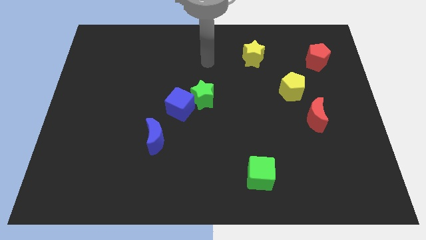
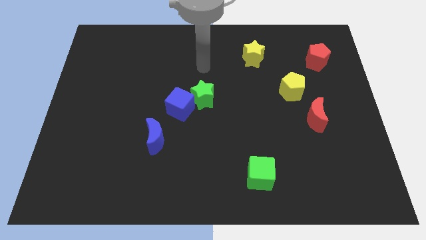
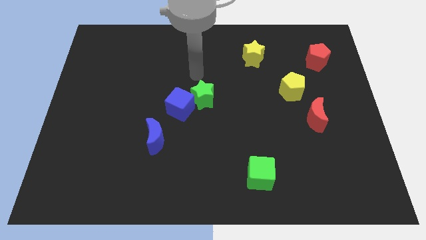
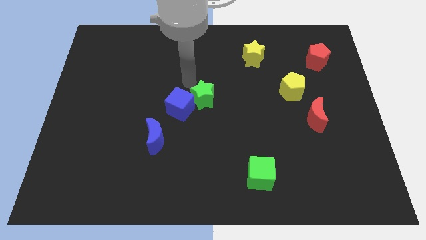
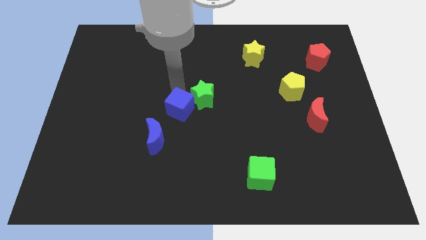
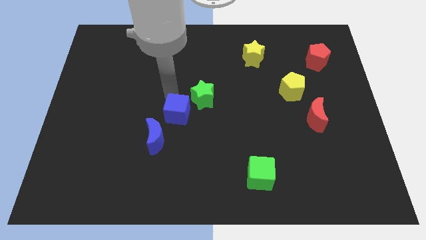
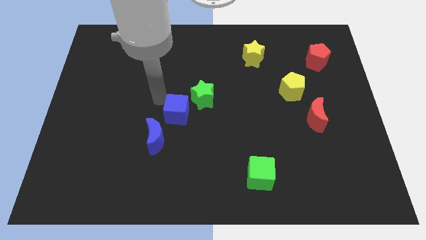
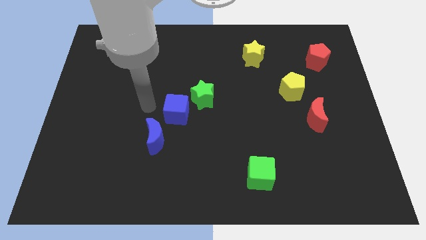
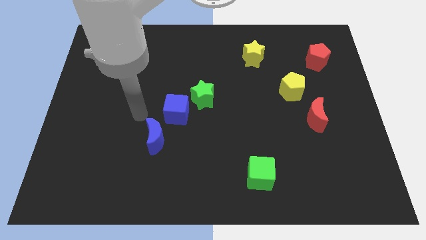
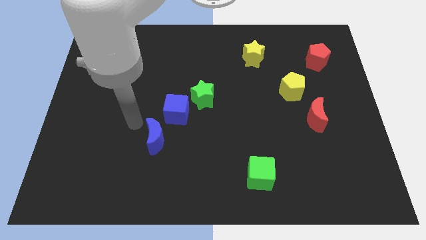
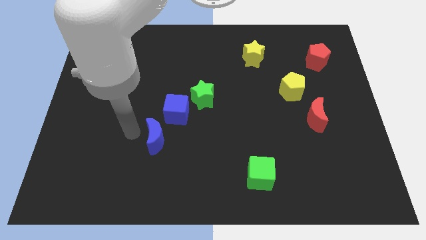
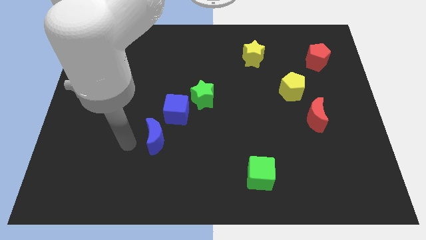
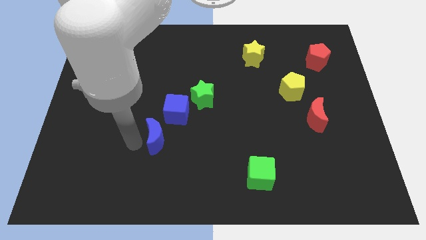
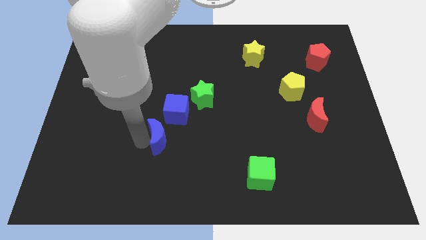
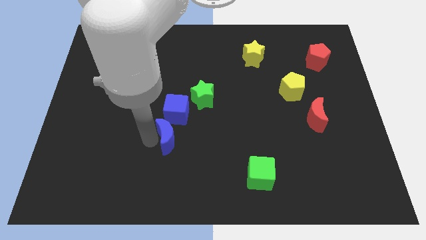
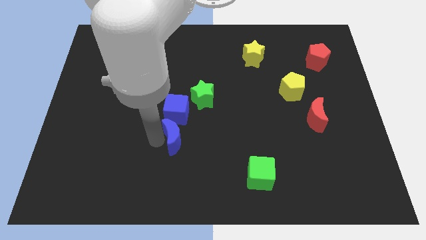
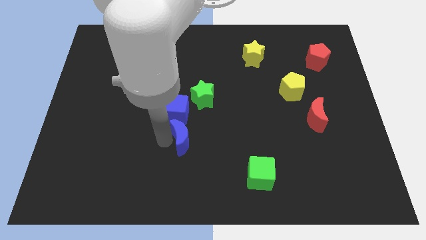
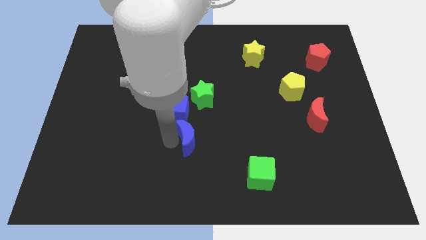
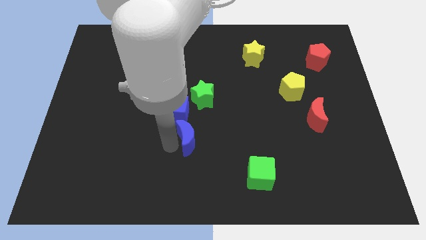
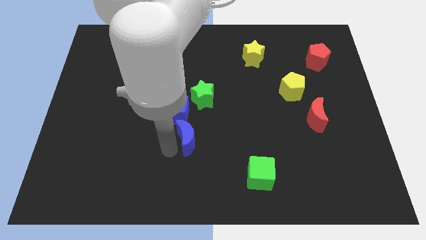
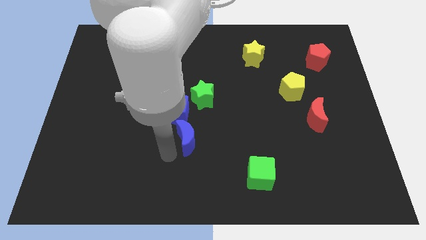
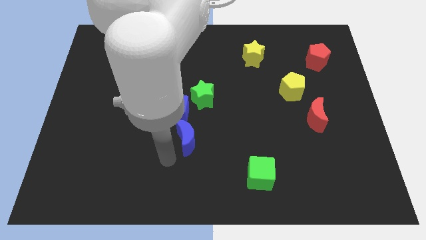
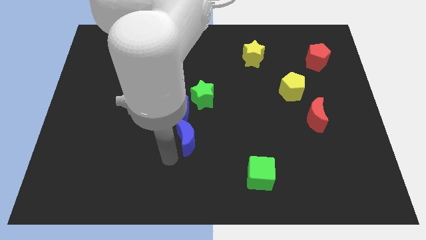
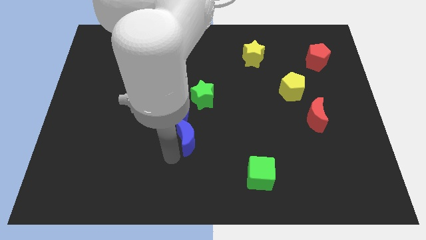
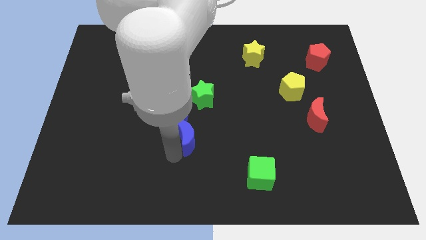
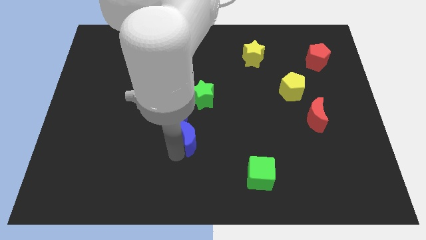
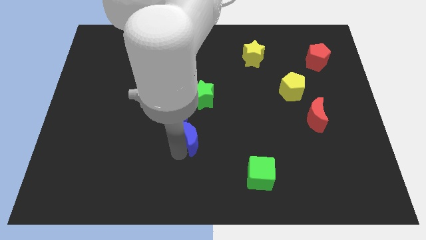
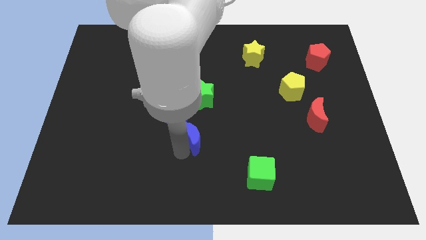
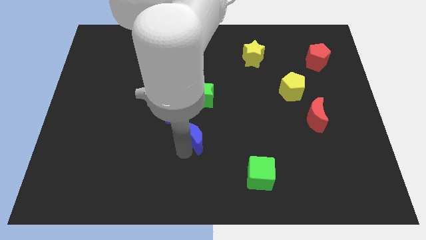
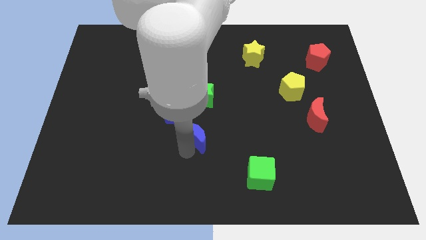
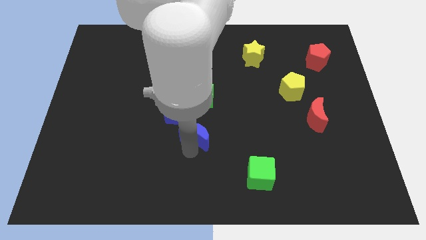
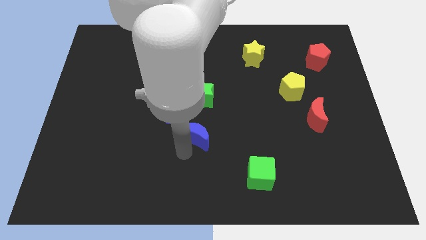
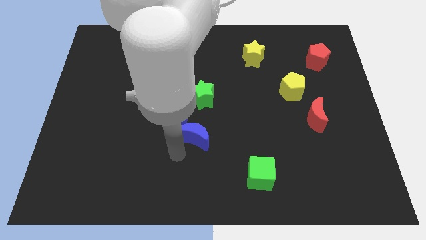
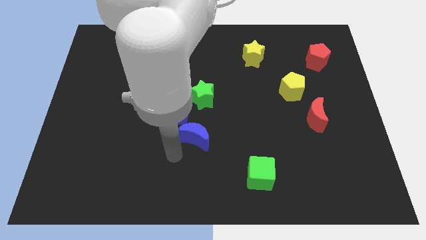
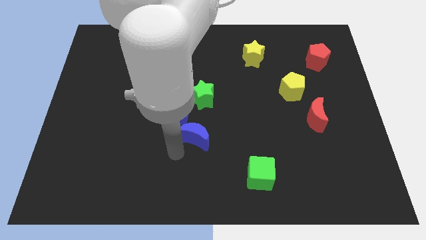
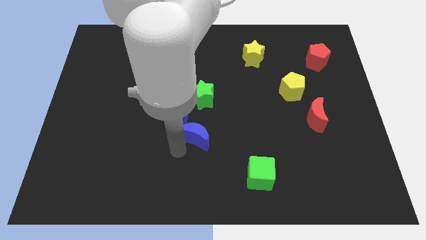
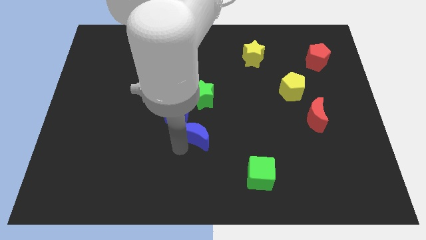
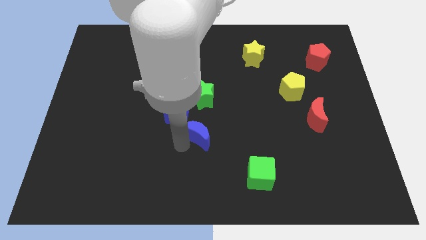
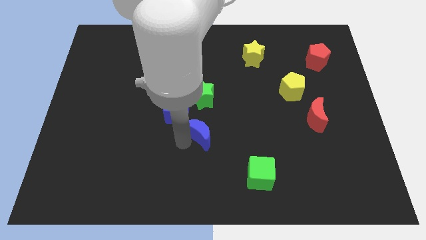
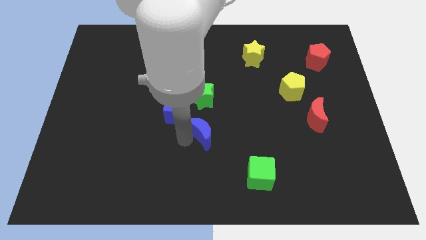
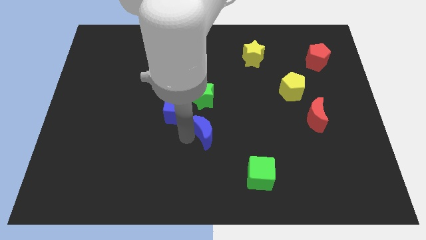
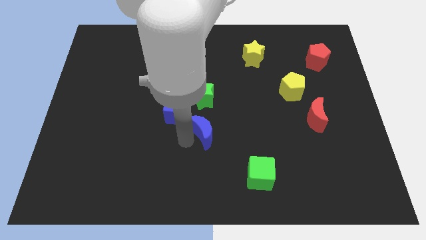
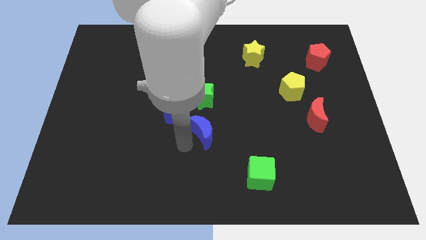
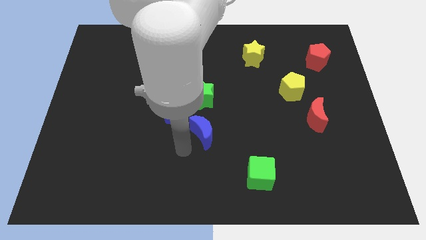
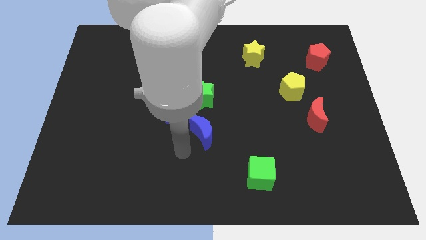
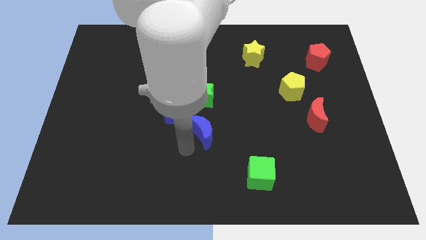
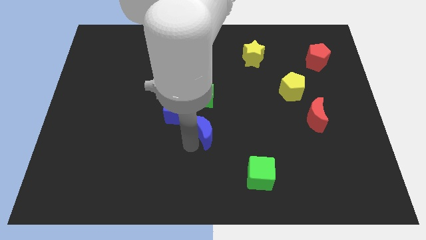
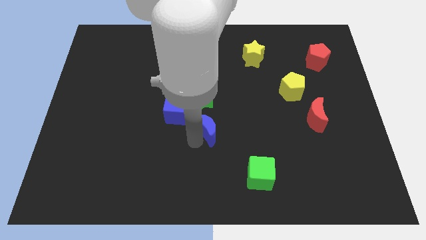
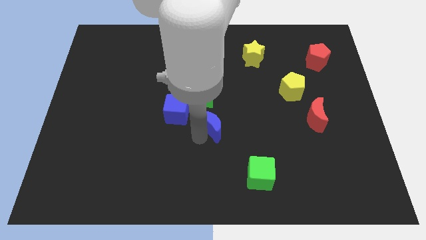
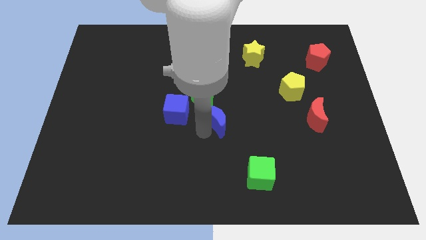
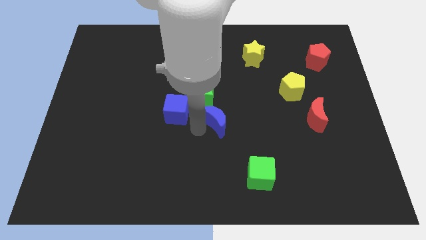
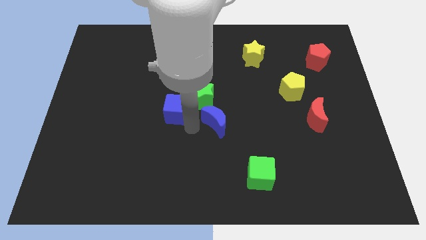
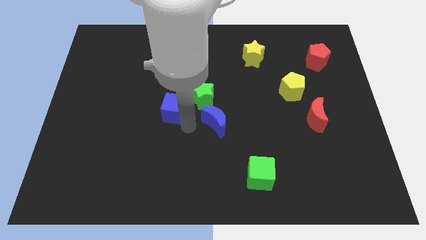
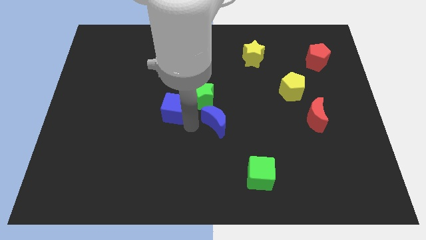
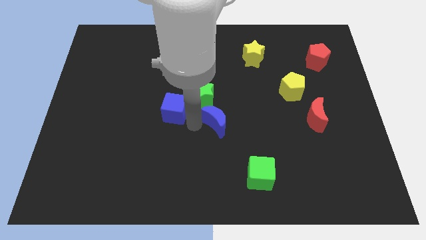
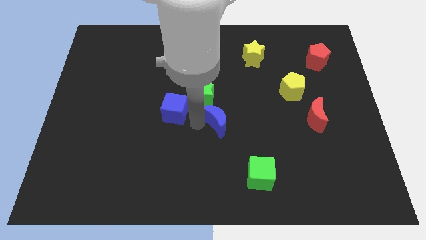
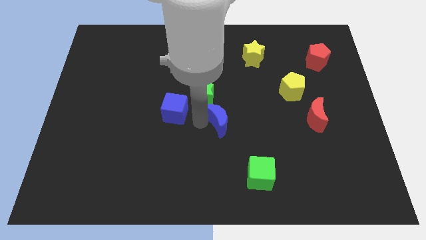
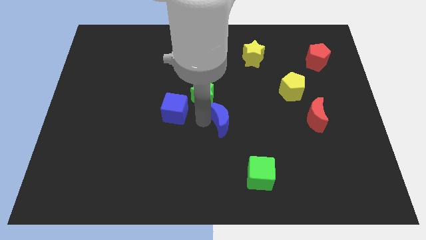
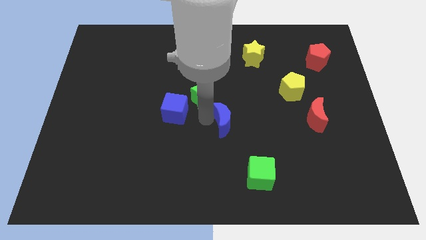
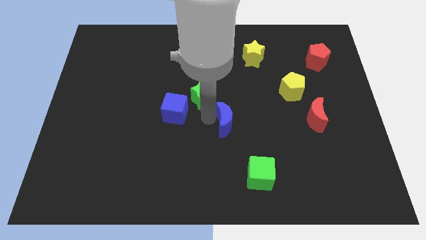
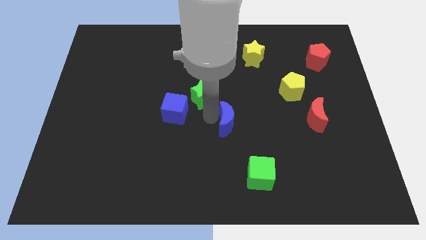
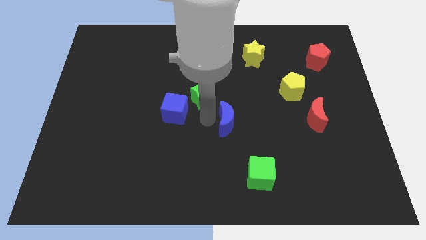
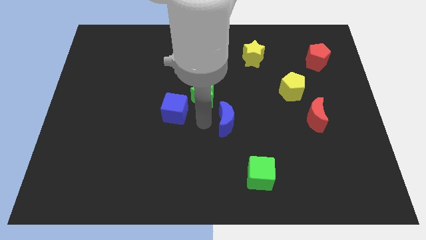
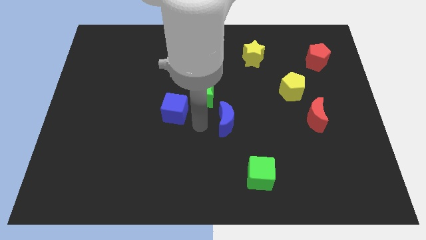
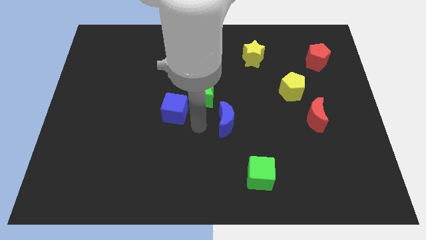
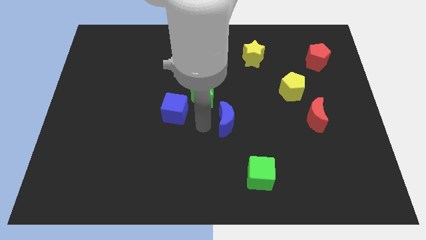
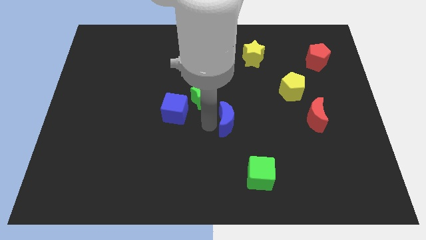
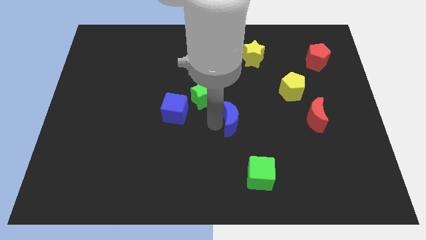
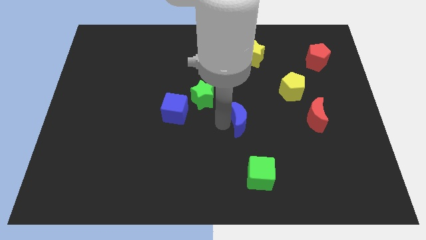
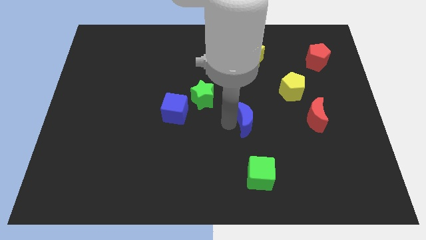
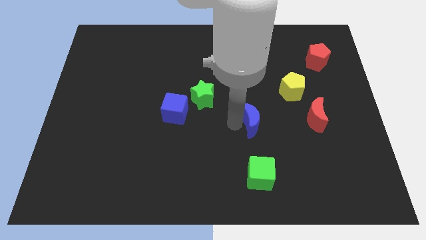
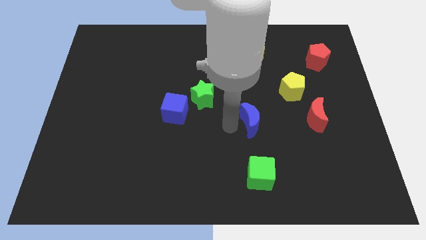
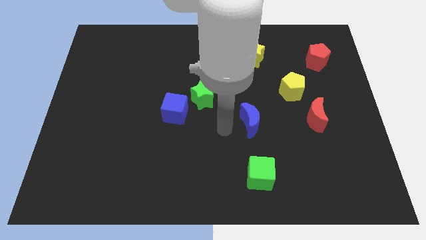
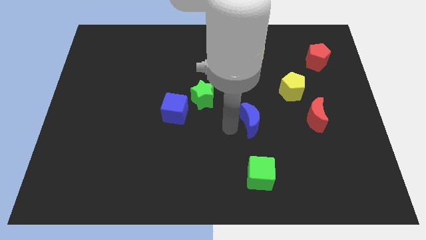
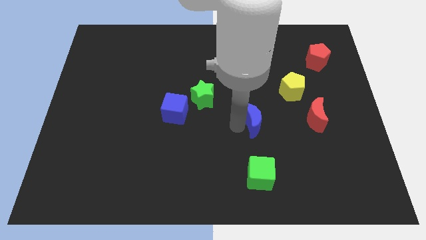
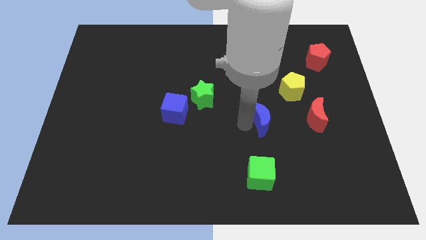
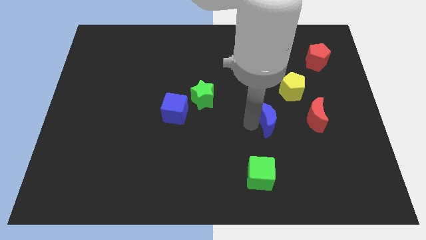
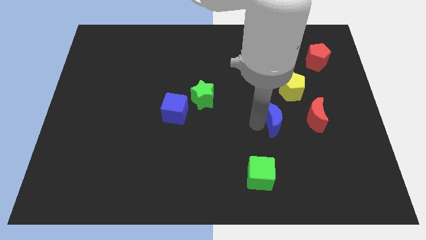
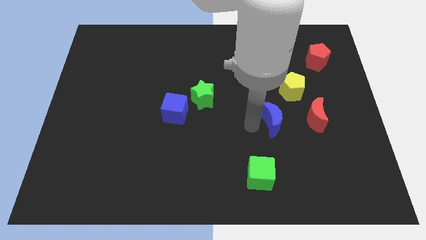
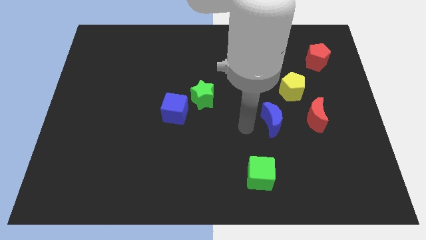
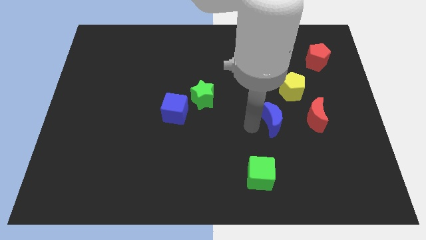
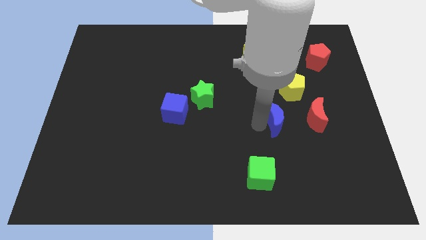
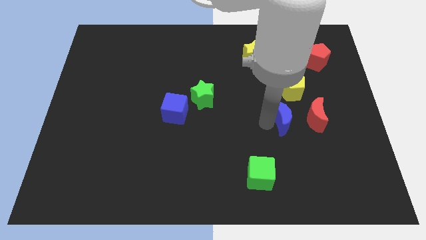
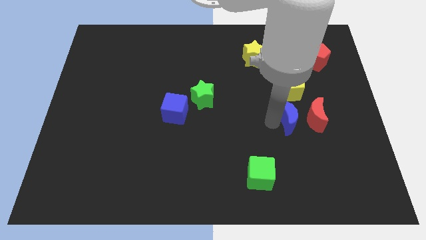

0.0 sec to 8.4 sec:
put the blue moon towards the red moon
